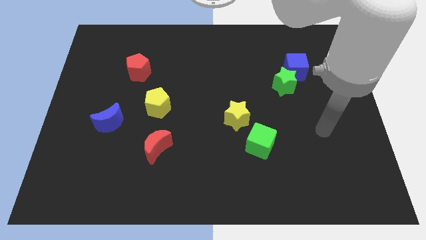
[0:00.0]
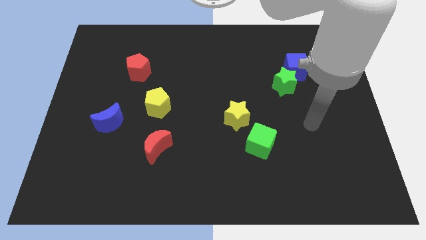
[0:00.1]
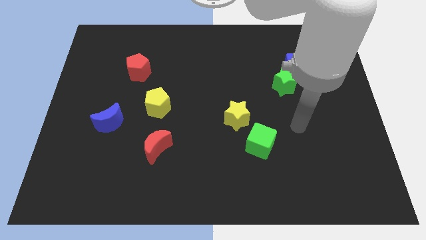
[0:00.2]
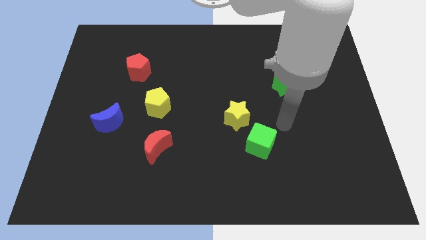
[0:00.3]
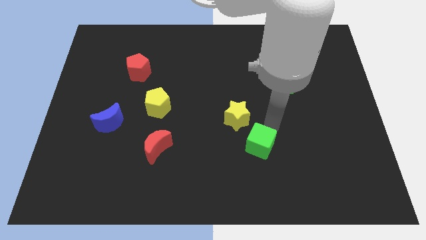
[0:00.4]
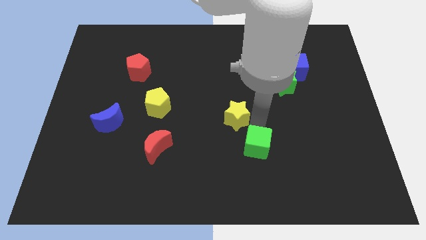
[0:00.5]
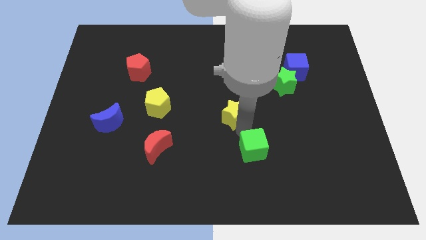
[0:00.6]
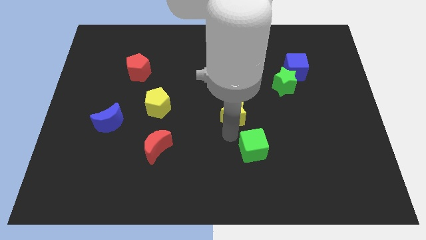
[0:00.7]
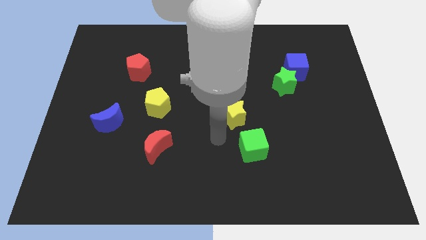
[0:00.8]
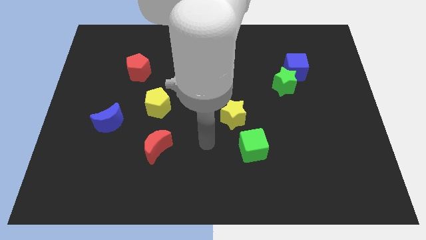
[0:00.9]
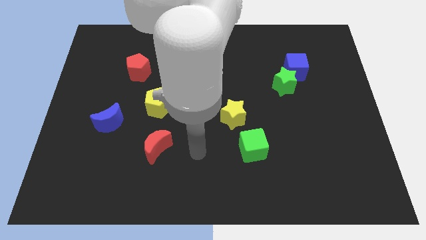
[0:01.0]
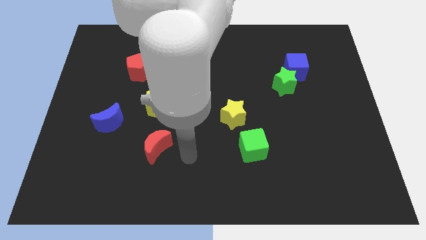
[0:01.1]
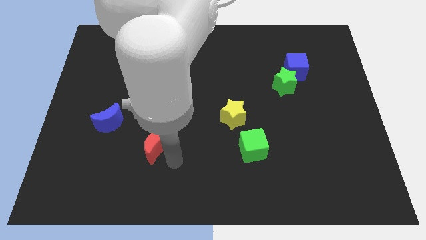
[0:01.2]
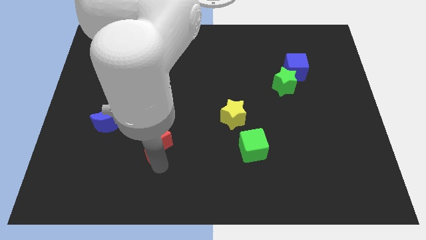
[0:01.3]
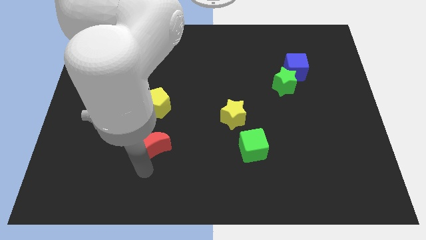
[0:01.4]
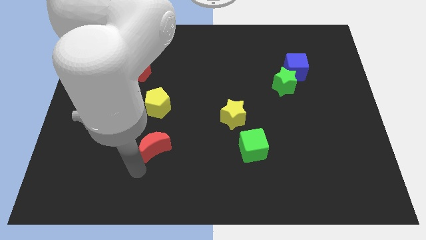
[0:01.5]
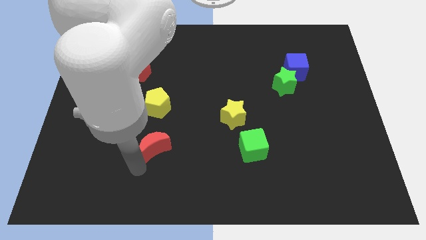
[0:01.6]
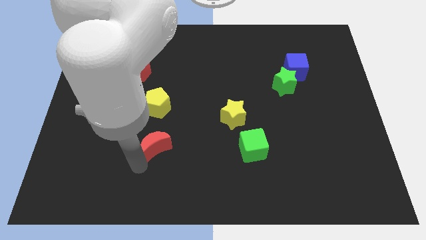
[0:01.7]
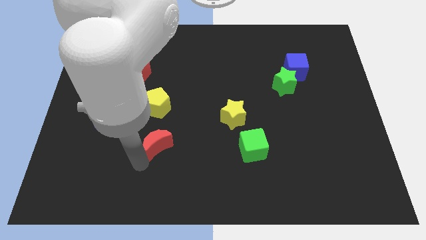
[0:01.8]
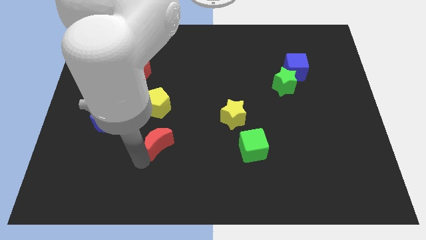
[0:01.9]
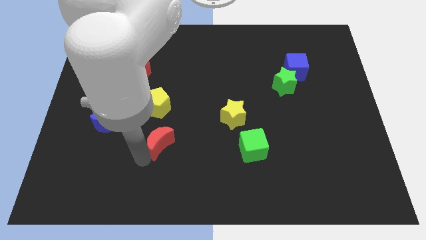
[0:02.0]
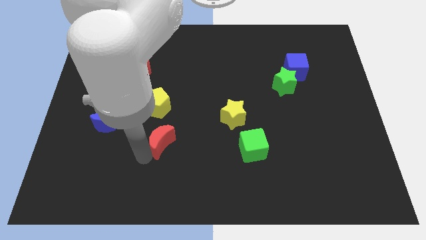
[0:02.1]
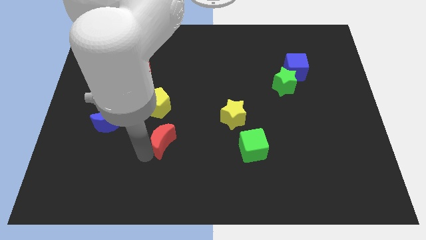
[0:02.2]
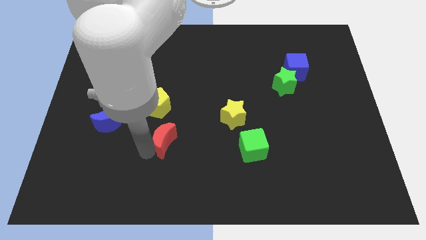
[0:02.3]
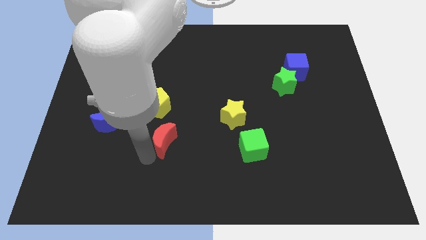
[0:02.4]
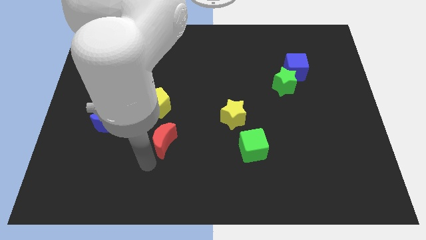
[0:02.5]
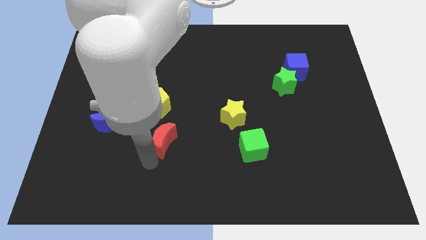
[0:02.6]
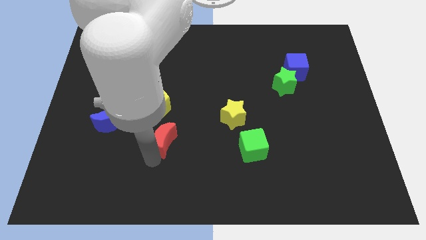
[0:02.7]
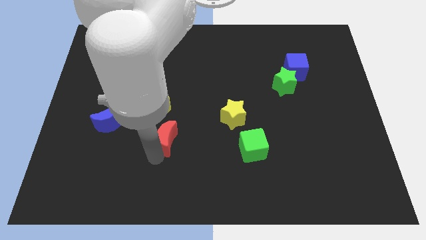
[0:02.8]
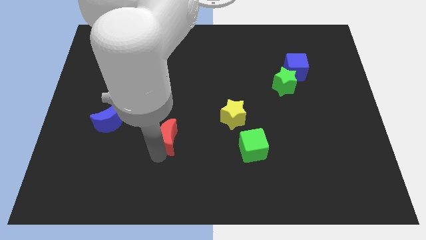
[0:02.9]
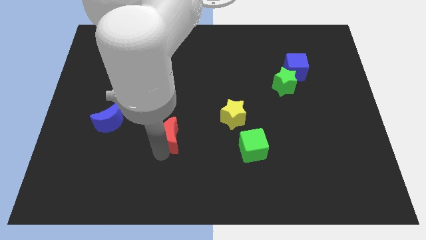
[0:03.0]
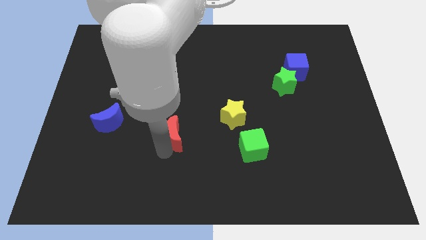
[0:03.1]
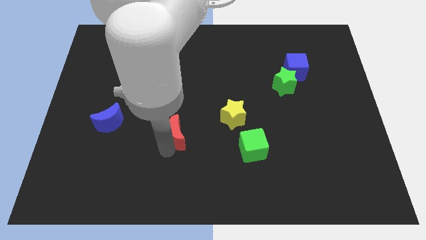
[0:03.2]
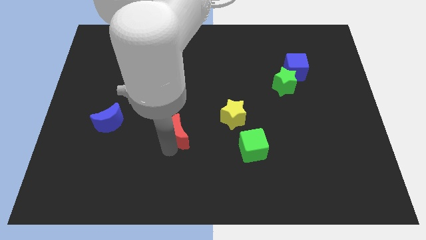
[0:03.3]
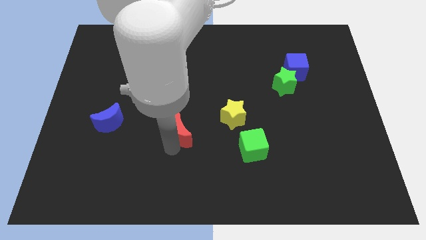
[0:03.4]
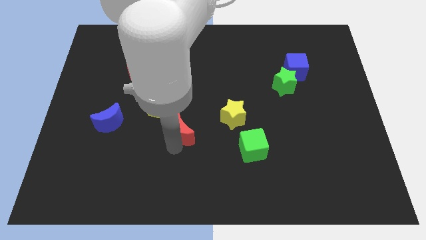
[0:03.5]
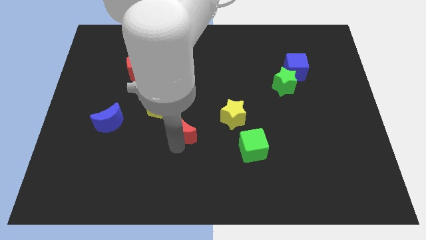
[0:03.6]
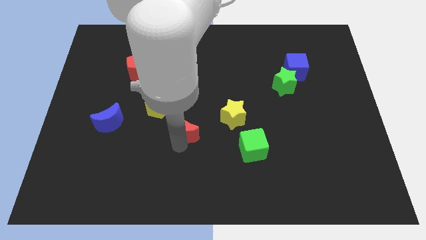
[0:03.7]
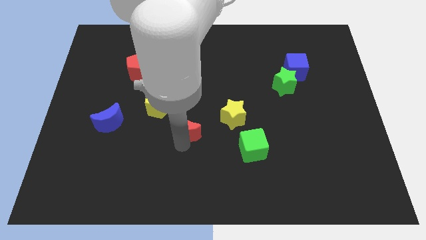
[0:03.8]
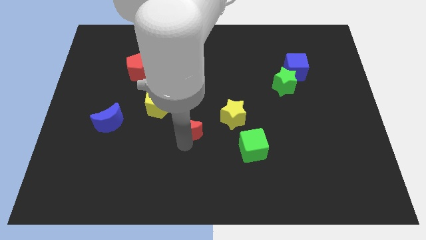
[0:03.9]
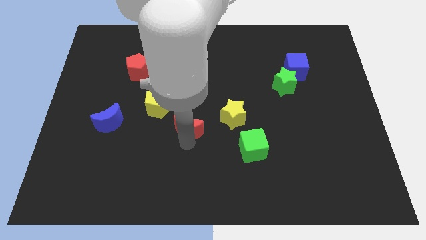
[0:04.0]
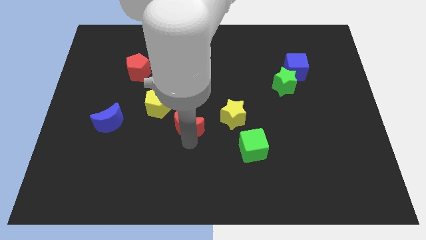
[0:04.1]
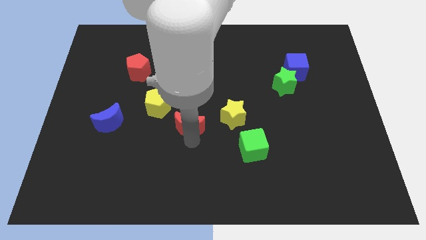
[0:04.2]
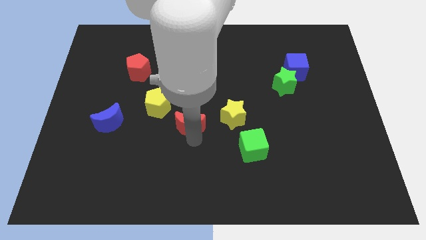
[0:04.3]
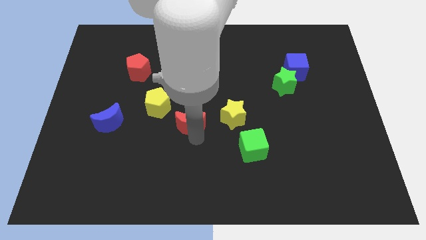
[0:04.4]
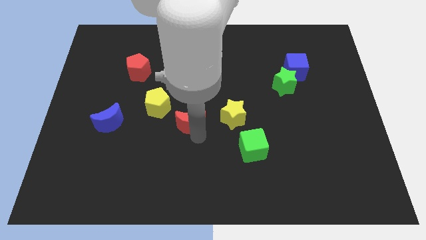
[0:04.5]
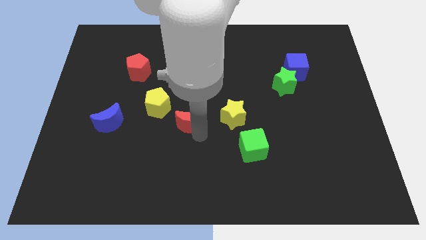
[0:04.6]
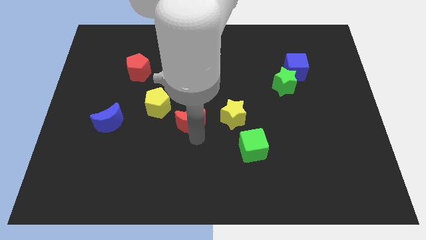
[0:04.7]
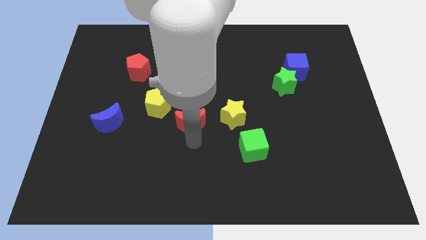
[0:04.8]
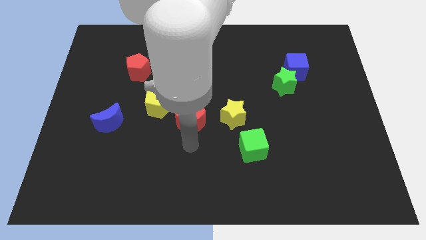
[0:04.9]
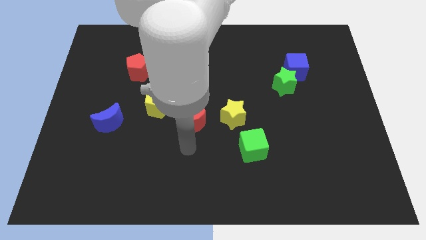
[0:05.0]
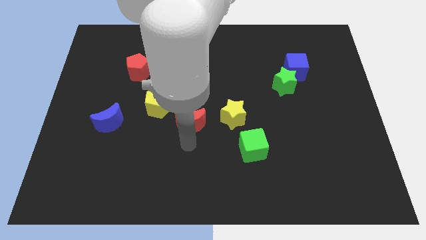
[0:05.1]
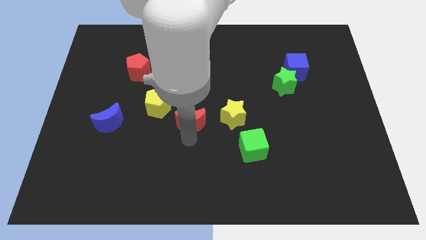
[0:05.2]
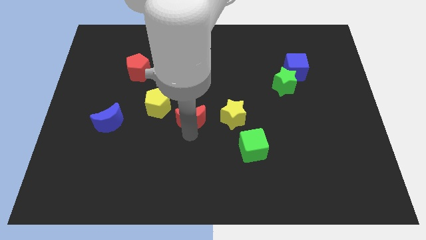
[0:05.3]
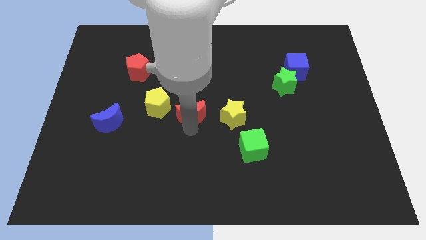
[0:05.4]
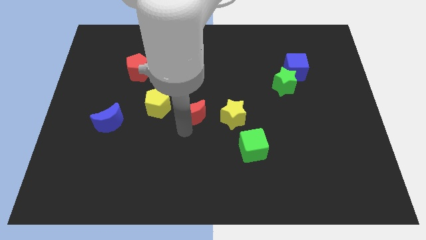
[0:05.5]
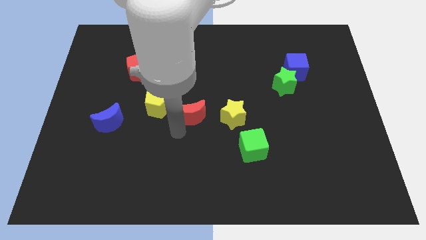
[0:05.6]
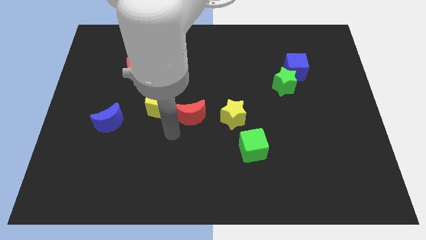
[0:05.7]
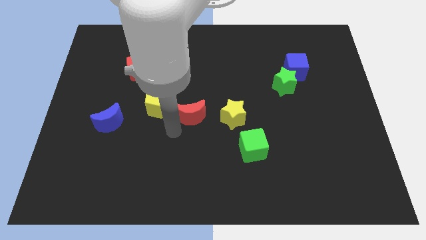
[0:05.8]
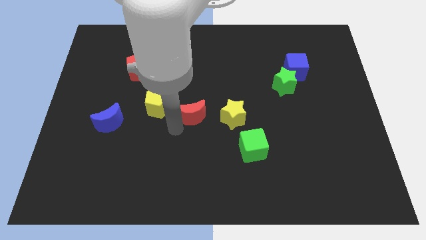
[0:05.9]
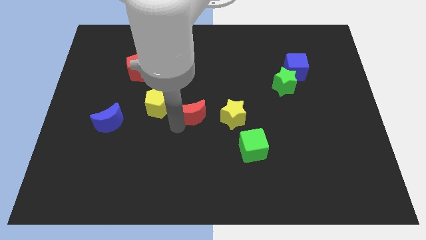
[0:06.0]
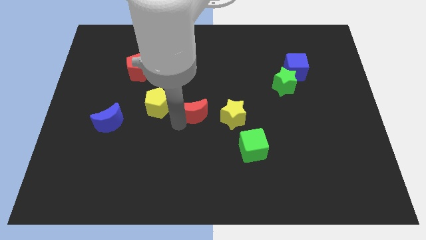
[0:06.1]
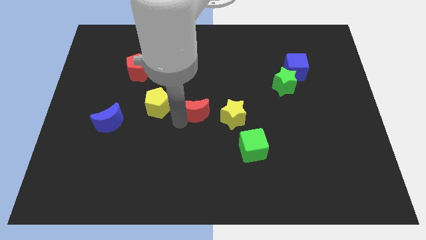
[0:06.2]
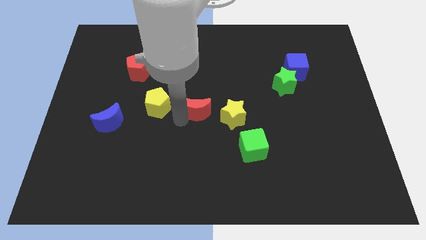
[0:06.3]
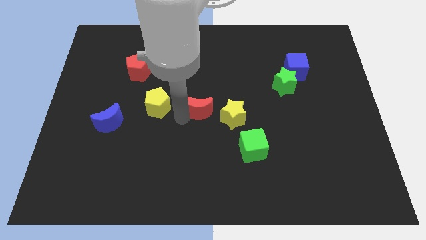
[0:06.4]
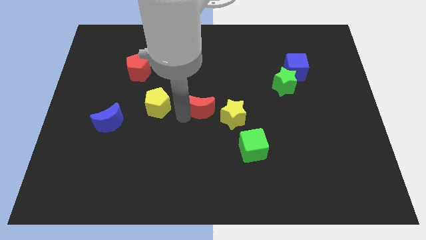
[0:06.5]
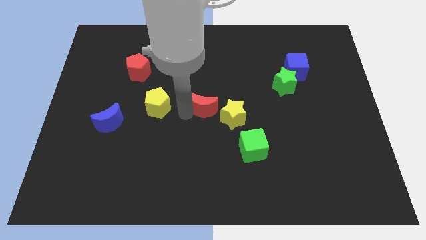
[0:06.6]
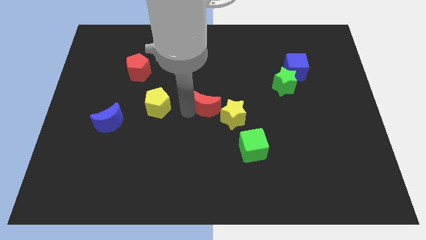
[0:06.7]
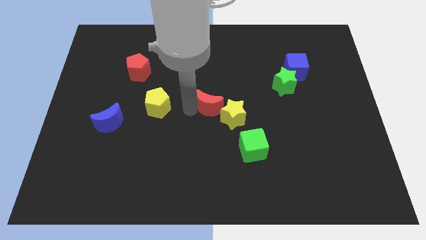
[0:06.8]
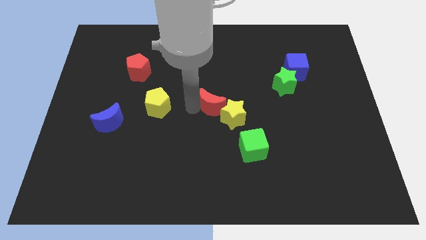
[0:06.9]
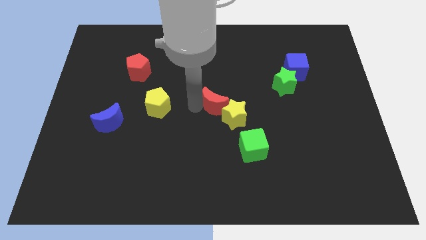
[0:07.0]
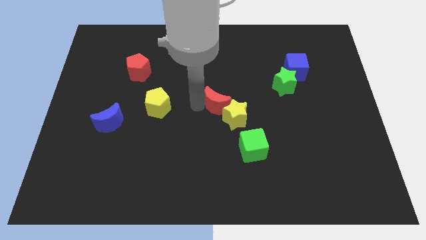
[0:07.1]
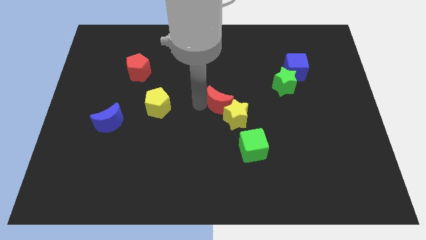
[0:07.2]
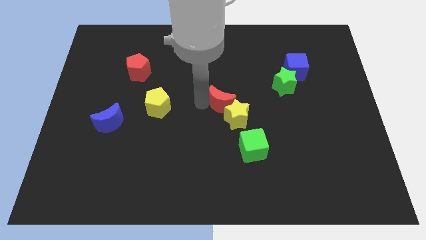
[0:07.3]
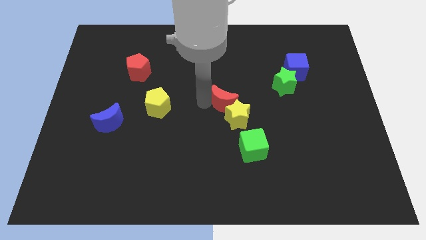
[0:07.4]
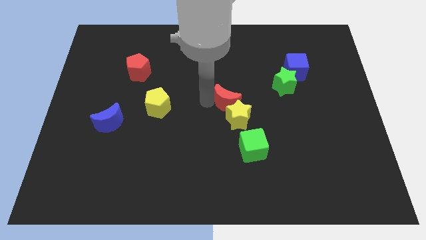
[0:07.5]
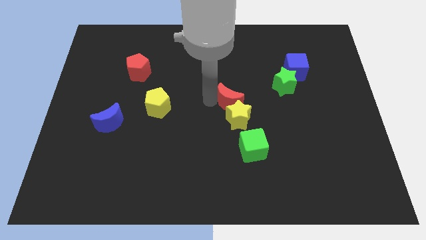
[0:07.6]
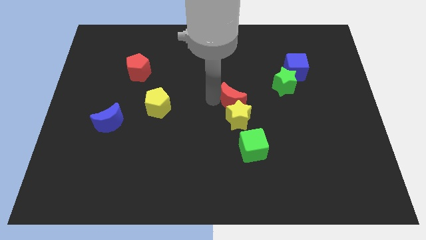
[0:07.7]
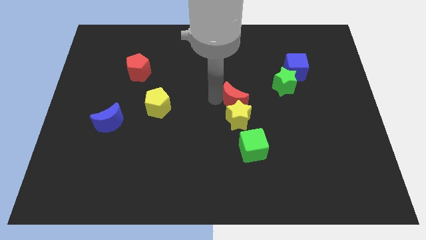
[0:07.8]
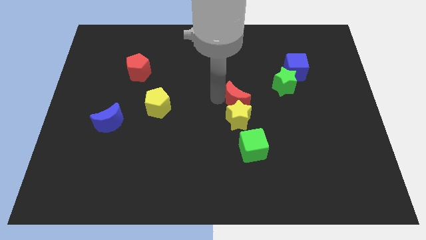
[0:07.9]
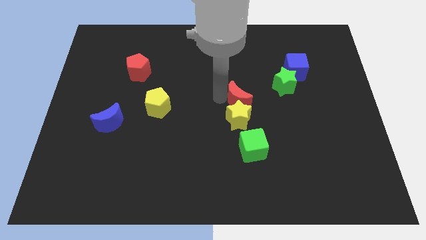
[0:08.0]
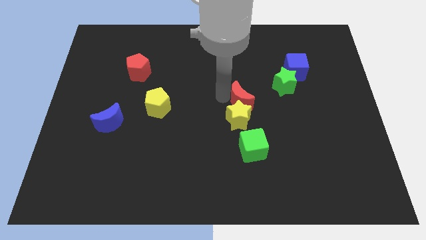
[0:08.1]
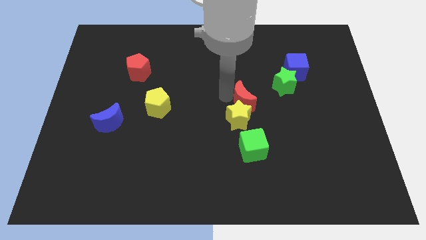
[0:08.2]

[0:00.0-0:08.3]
slide the red moon diagonally down and to the left of the green star
